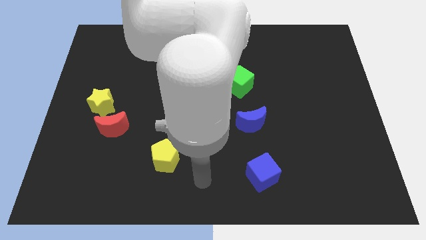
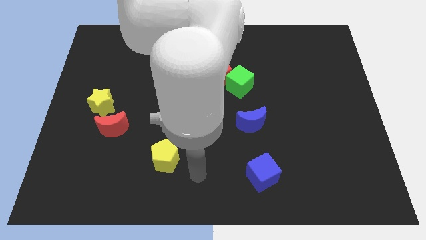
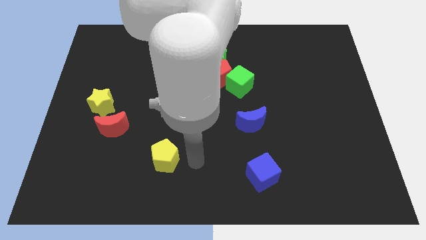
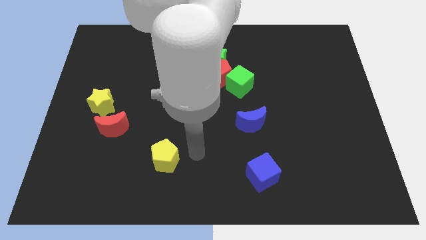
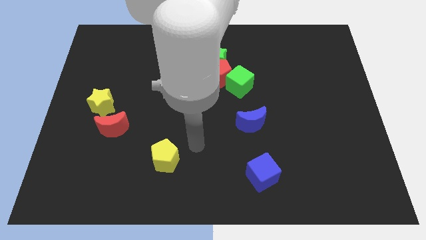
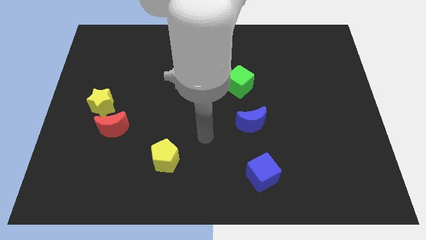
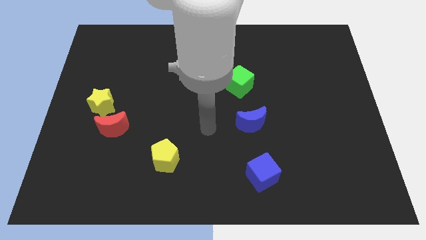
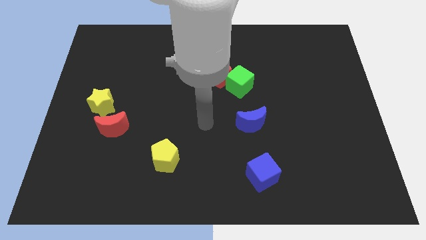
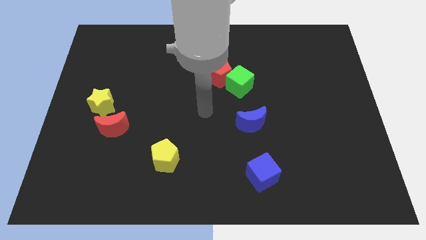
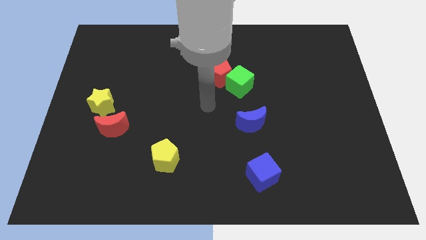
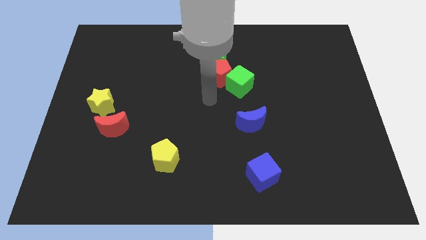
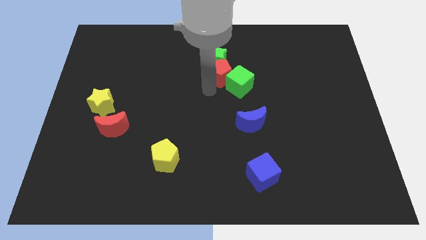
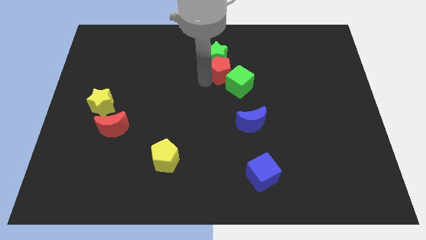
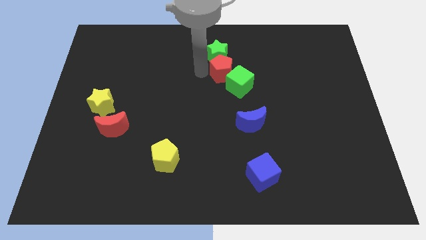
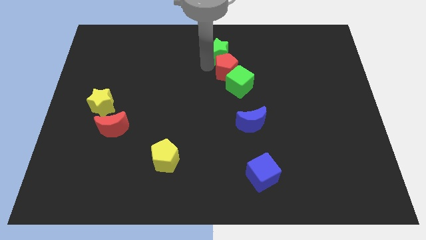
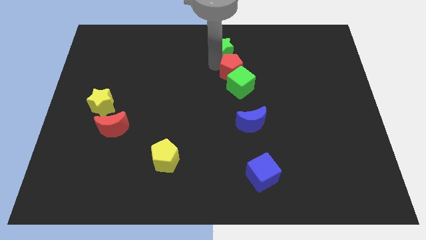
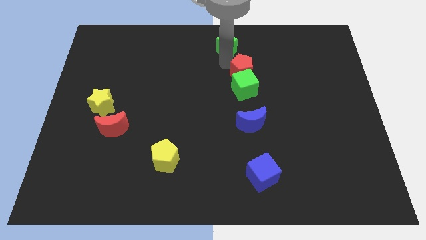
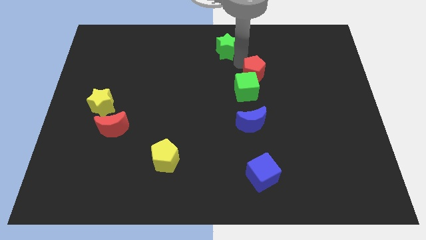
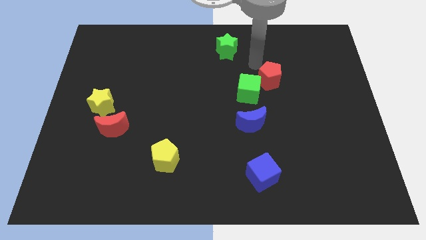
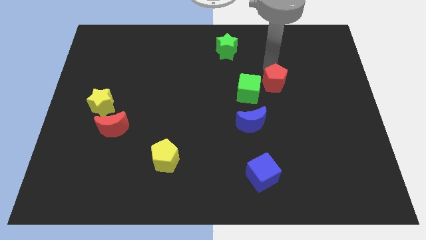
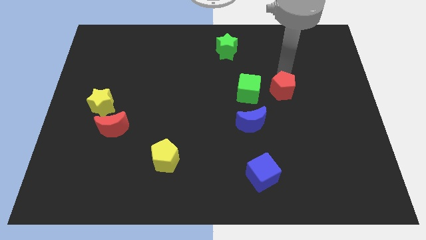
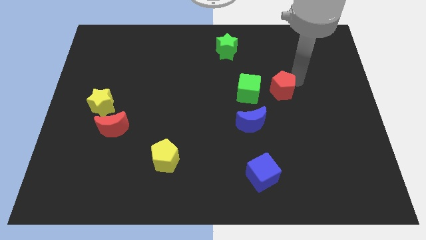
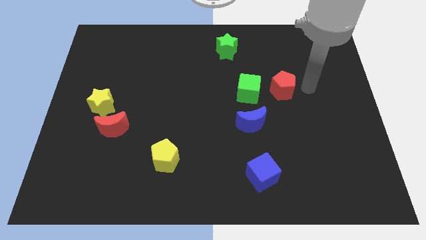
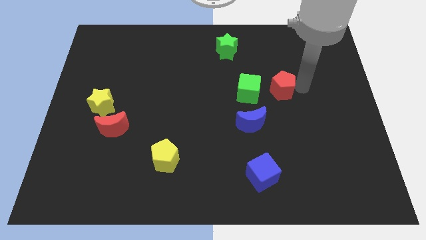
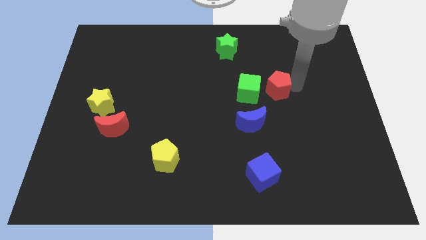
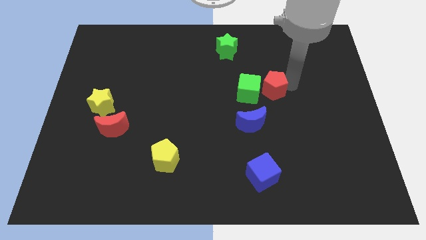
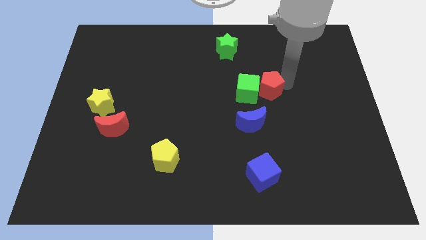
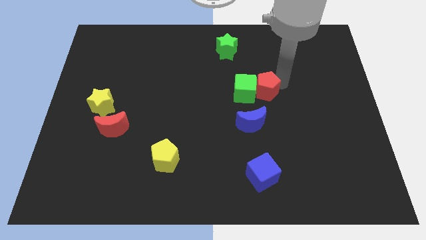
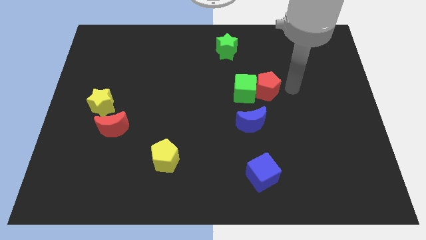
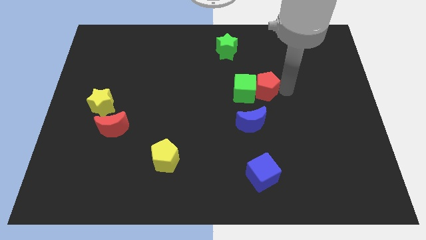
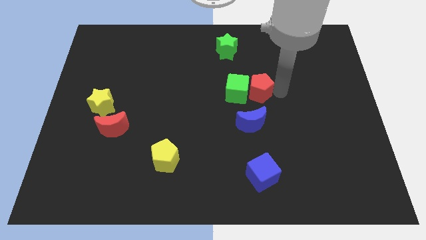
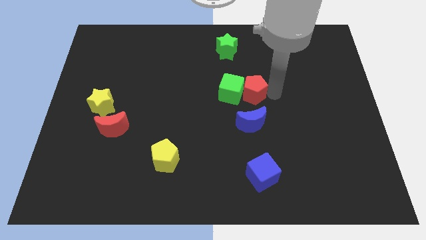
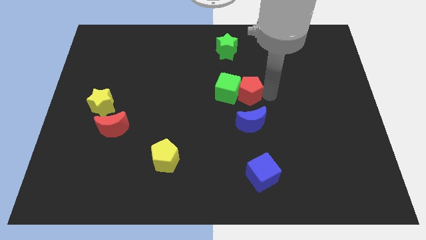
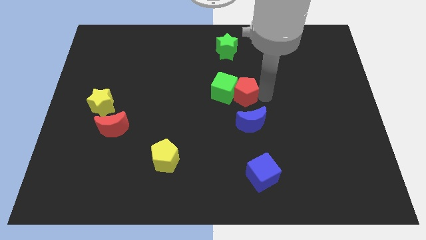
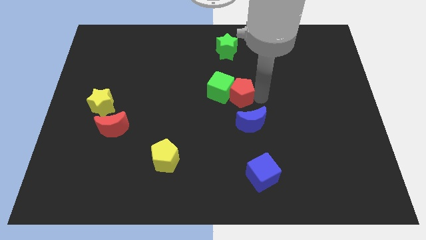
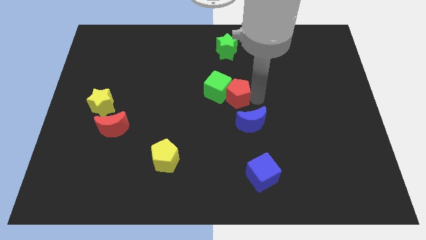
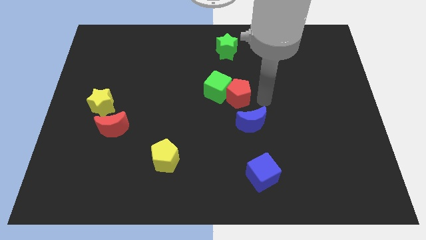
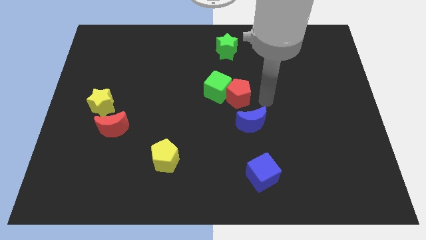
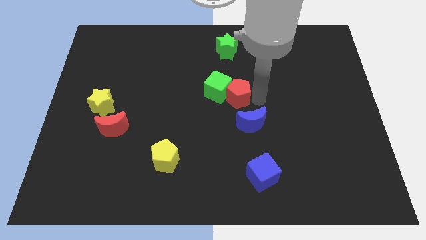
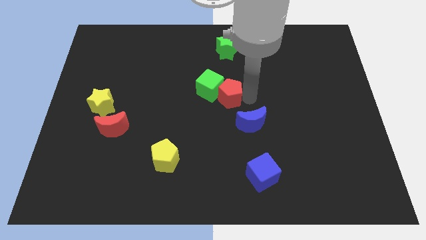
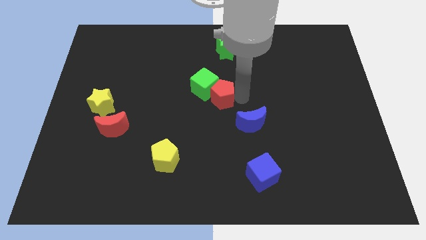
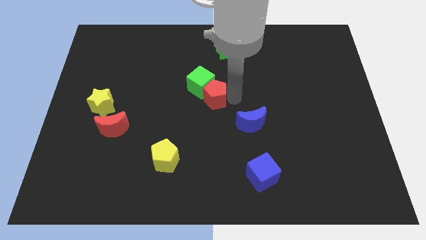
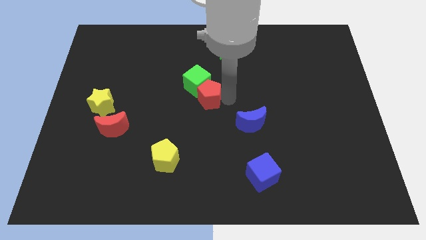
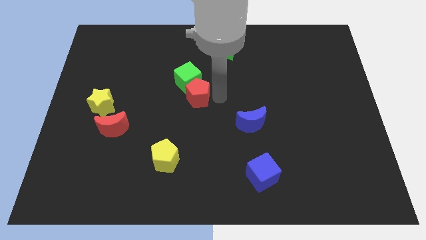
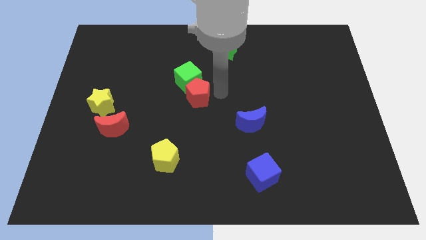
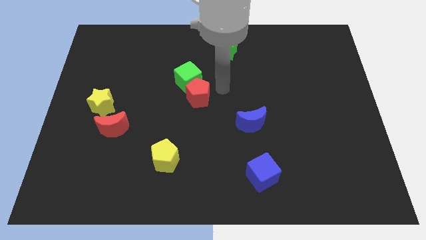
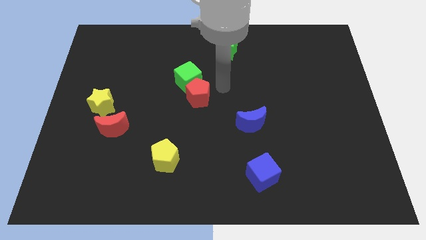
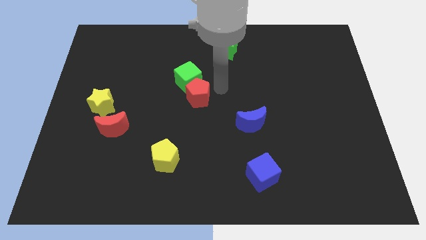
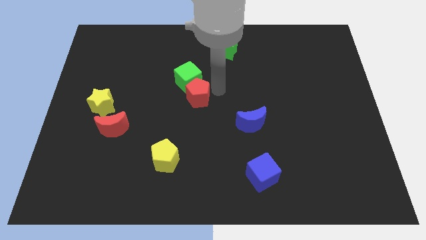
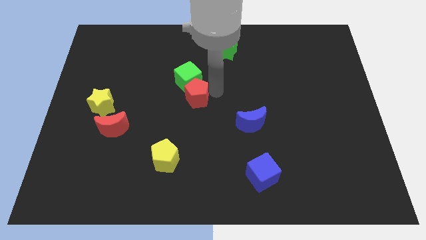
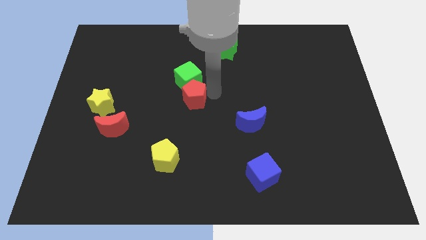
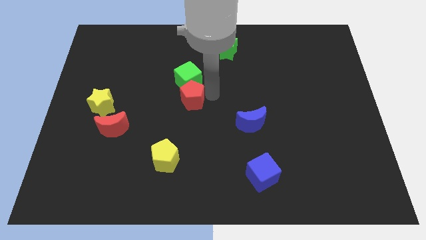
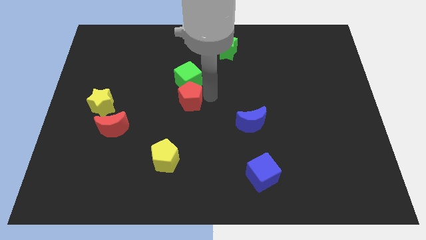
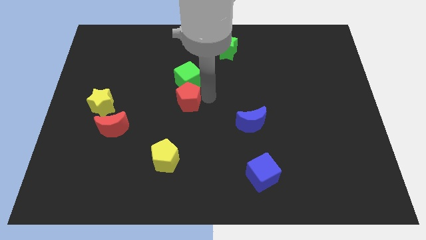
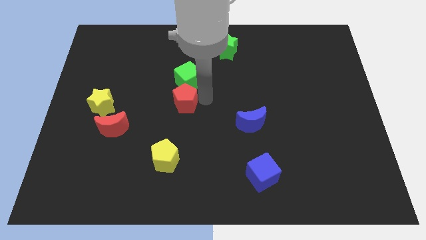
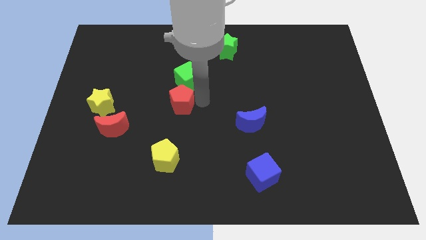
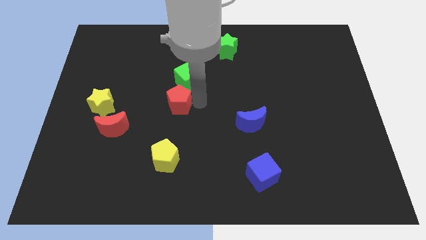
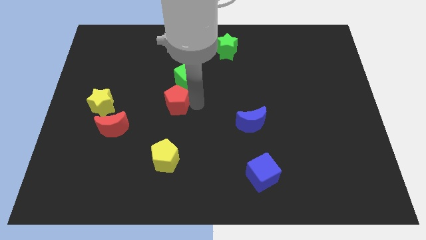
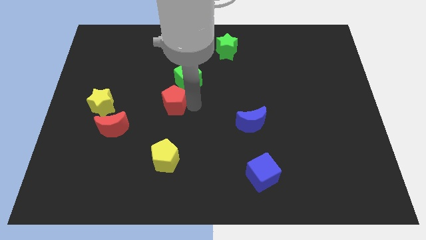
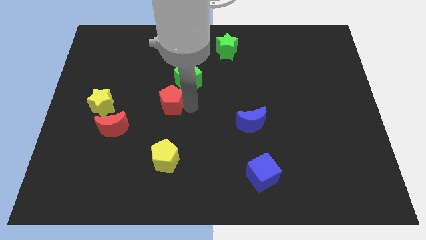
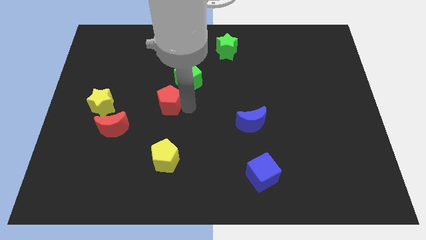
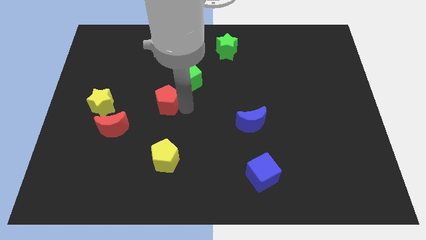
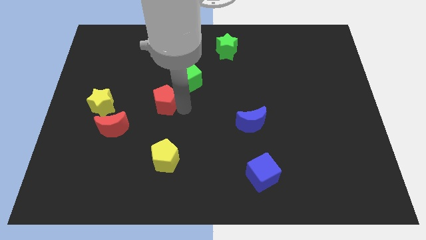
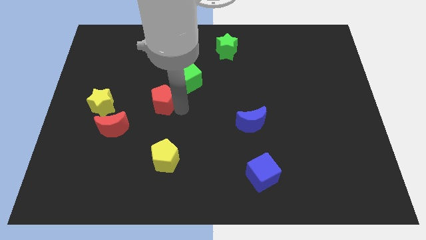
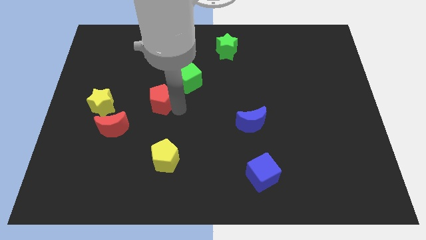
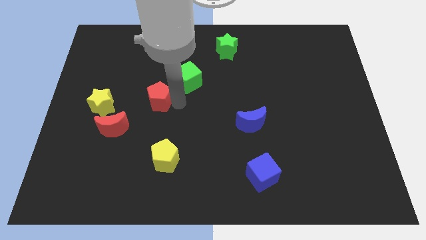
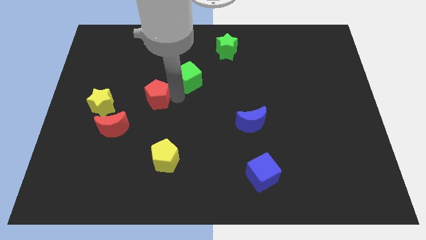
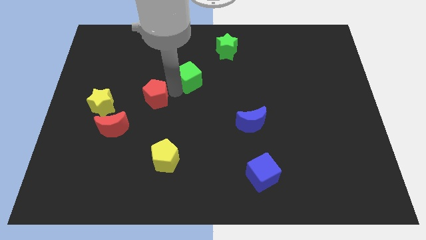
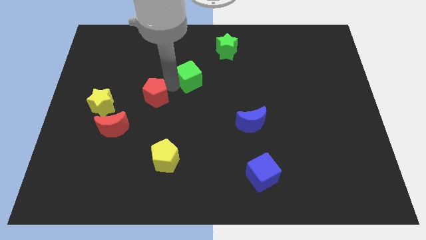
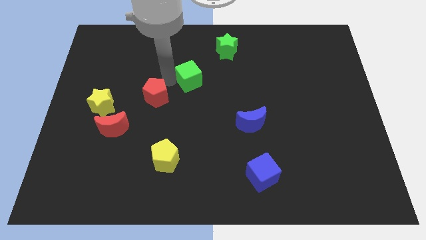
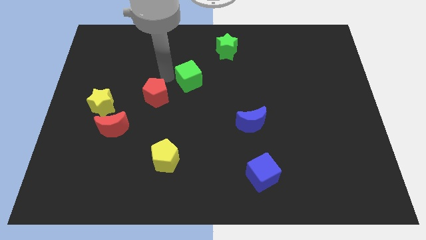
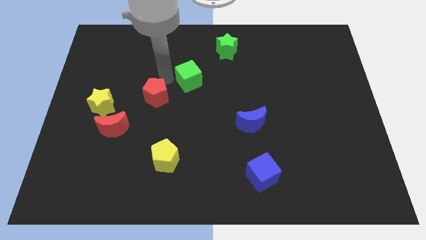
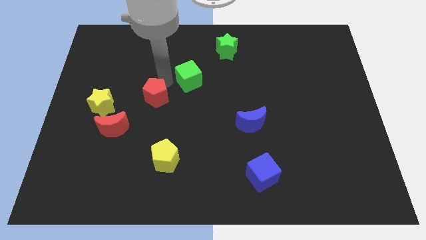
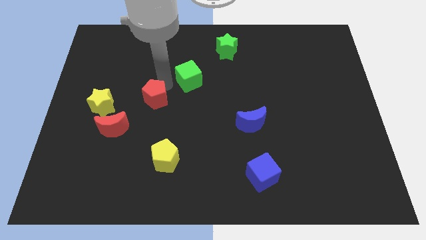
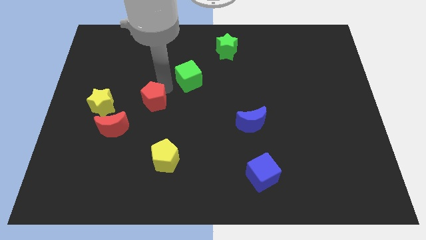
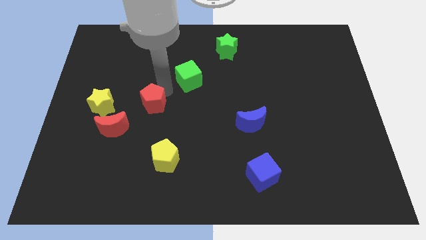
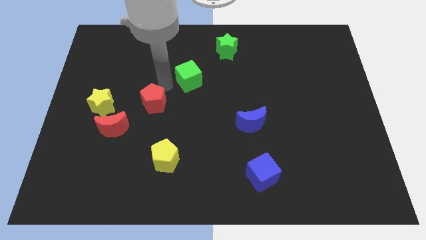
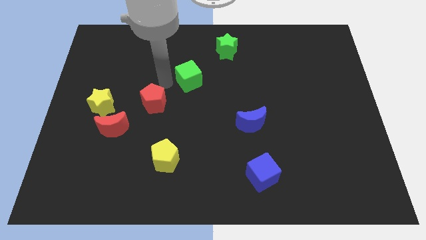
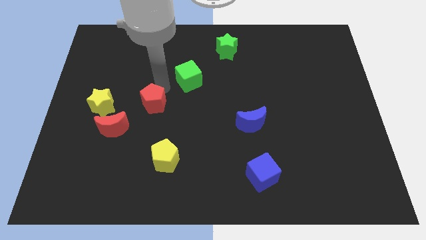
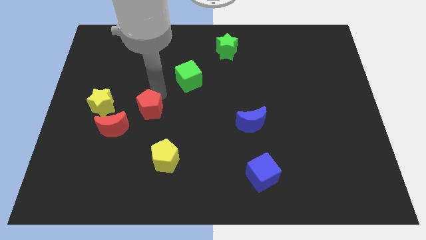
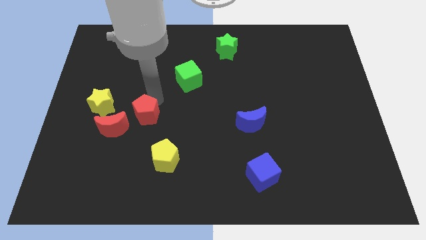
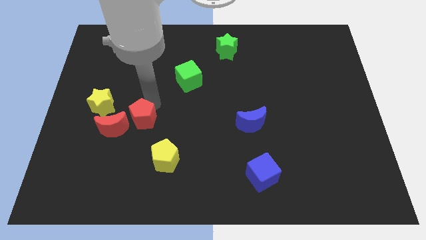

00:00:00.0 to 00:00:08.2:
push the red pentagon downwards and then left
